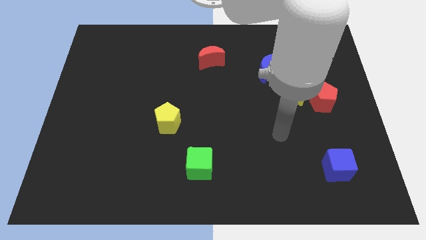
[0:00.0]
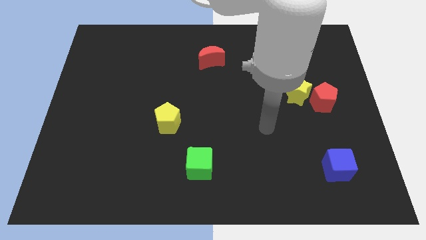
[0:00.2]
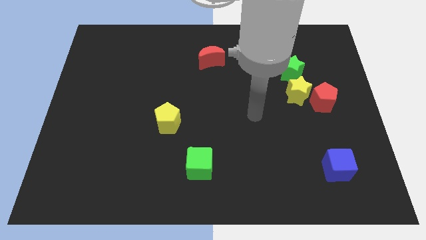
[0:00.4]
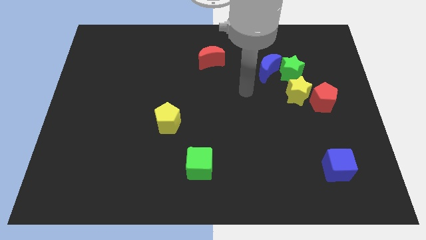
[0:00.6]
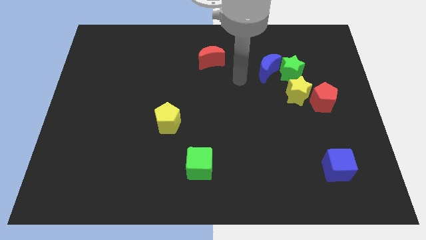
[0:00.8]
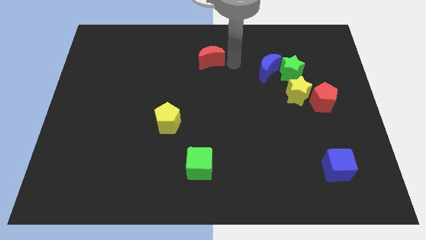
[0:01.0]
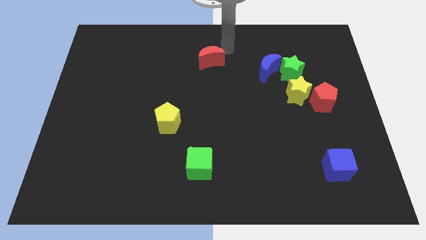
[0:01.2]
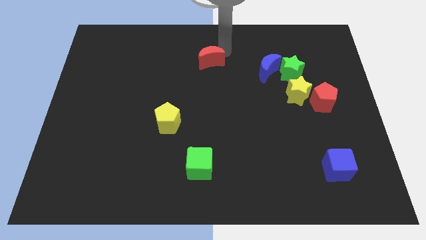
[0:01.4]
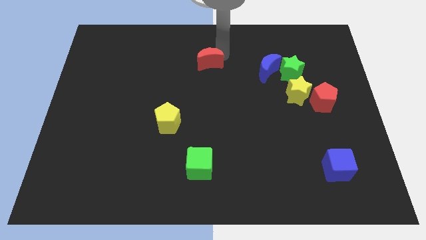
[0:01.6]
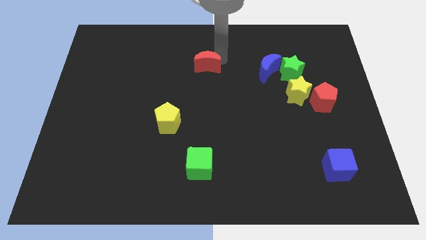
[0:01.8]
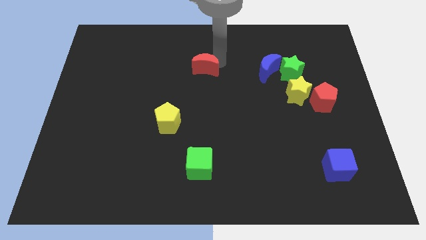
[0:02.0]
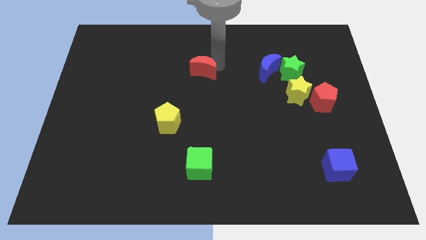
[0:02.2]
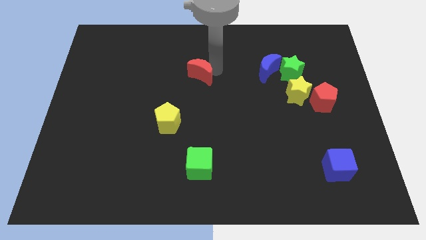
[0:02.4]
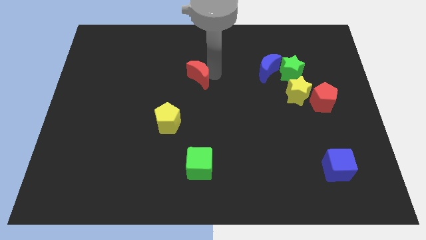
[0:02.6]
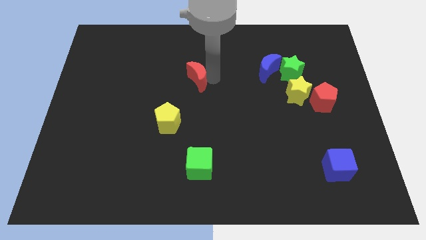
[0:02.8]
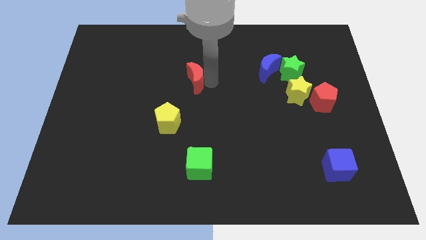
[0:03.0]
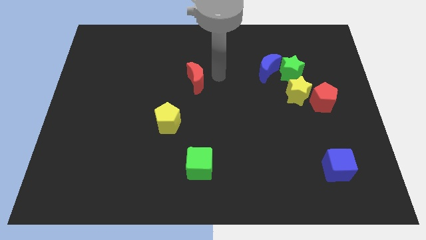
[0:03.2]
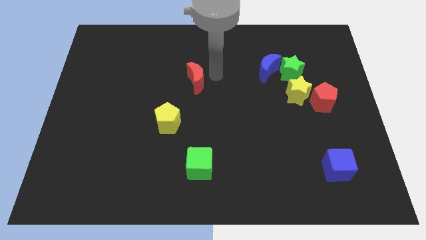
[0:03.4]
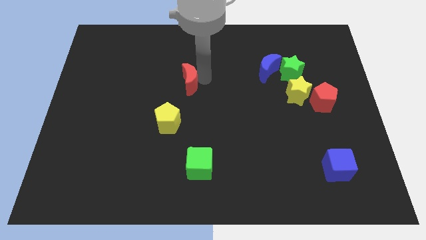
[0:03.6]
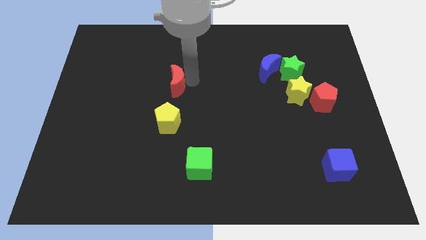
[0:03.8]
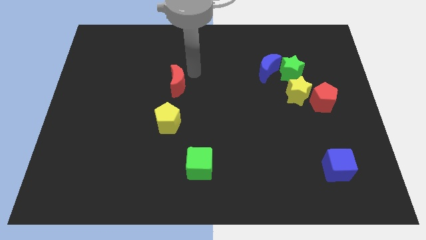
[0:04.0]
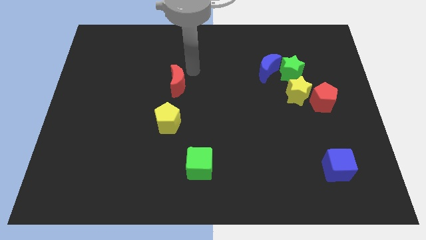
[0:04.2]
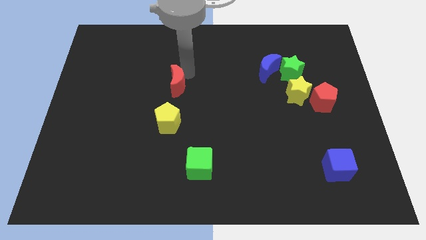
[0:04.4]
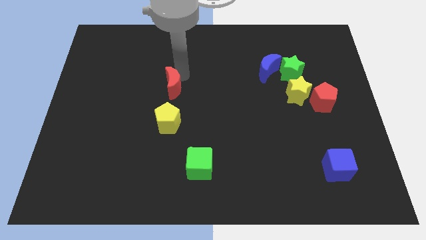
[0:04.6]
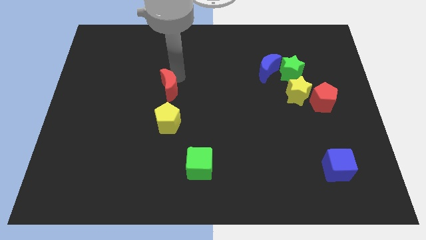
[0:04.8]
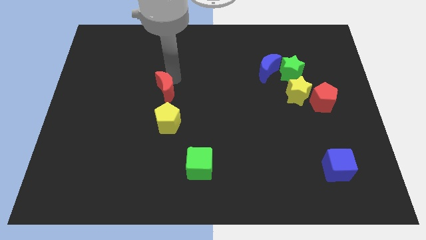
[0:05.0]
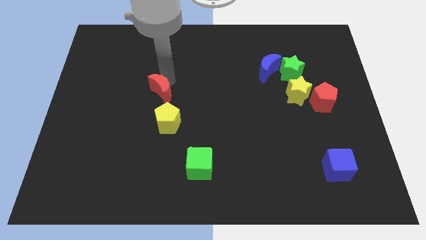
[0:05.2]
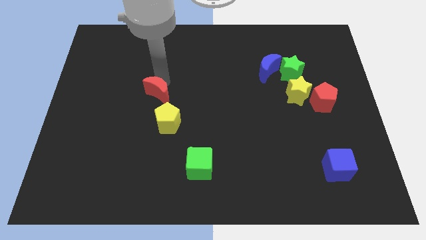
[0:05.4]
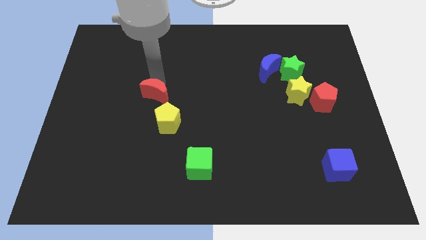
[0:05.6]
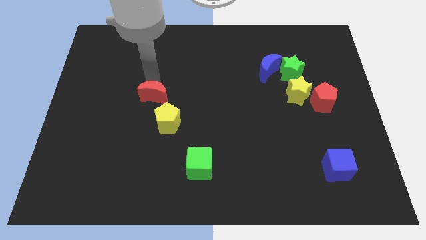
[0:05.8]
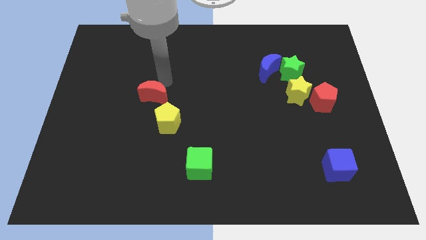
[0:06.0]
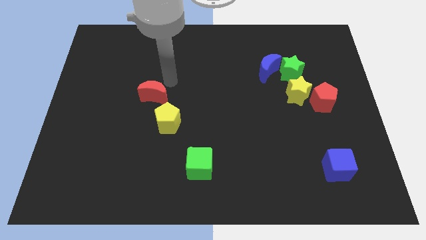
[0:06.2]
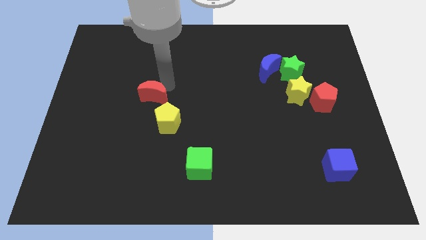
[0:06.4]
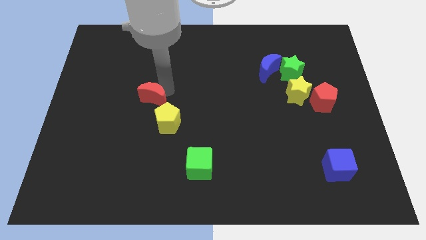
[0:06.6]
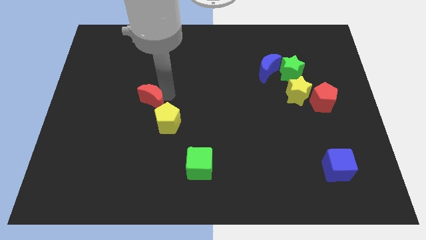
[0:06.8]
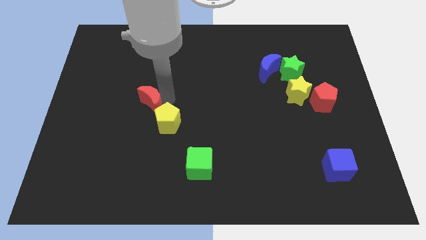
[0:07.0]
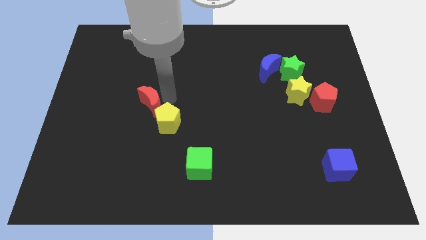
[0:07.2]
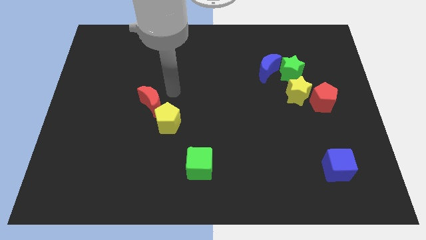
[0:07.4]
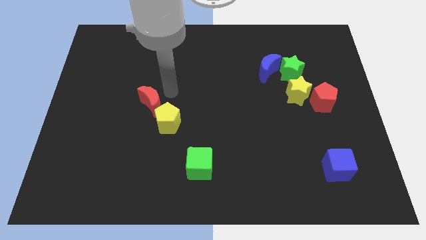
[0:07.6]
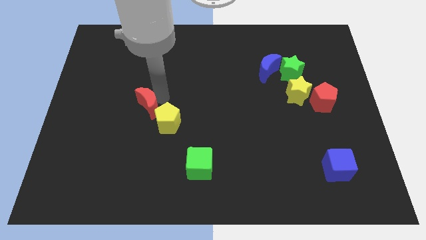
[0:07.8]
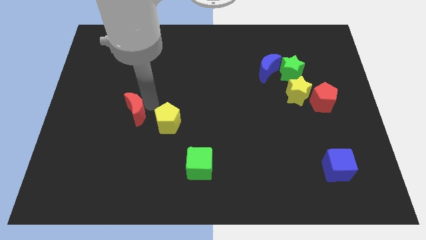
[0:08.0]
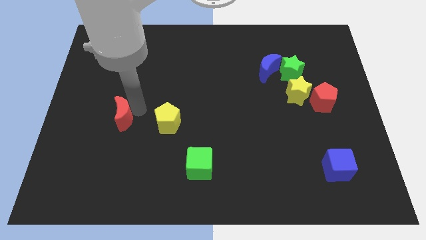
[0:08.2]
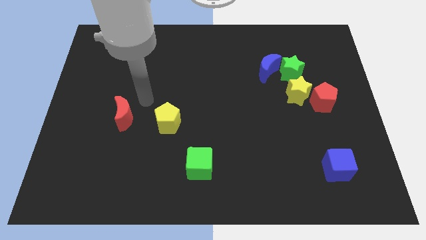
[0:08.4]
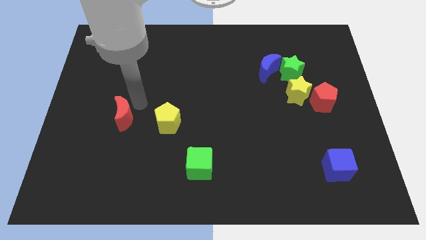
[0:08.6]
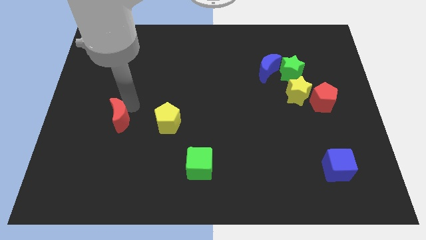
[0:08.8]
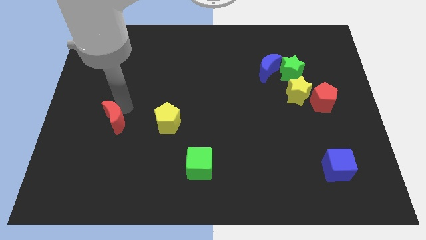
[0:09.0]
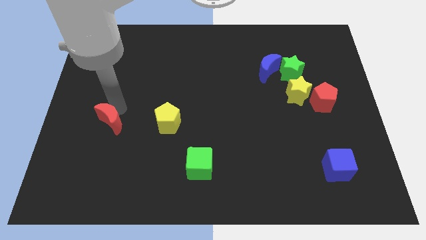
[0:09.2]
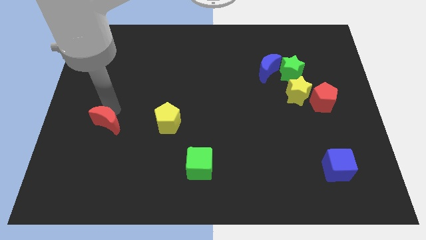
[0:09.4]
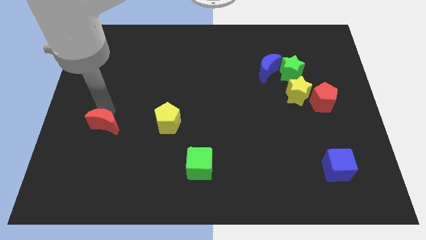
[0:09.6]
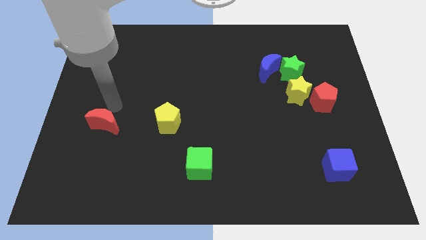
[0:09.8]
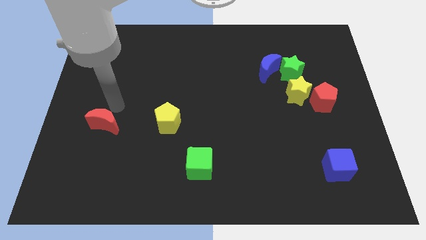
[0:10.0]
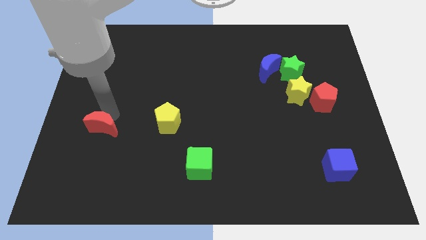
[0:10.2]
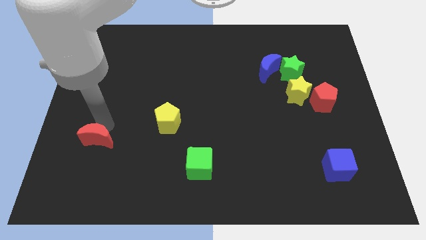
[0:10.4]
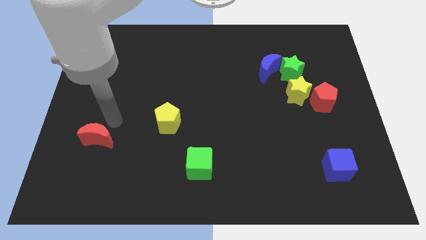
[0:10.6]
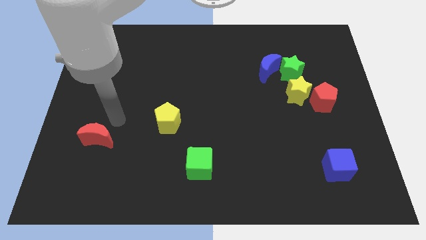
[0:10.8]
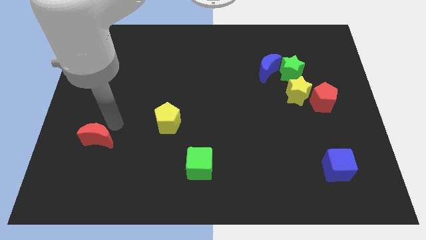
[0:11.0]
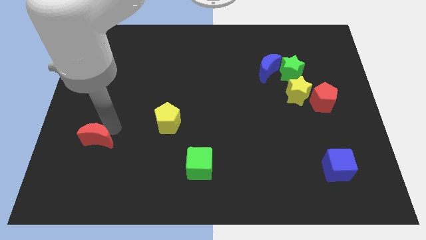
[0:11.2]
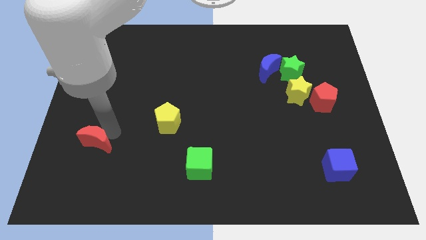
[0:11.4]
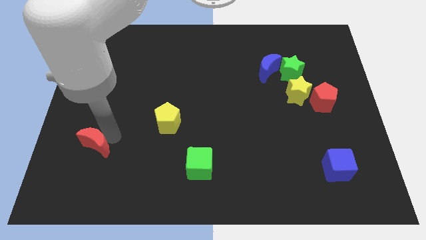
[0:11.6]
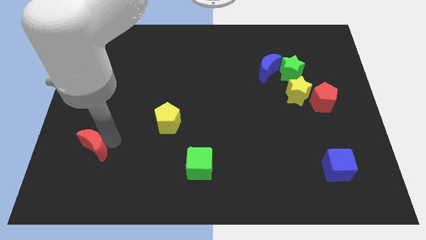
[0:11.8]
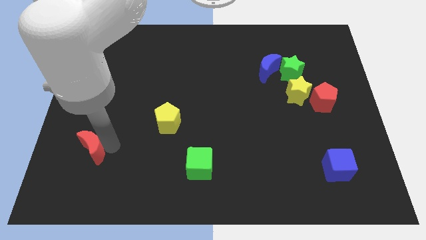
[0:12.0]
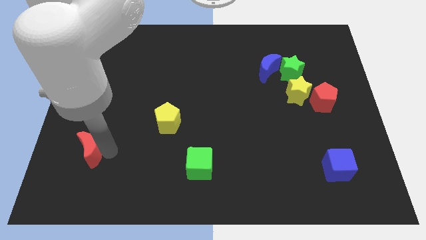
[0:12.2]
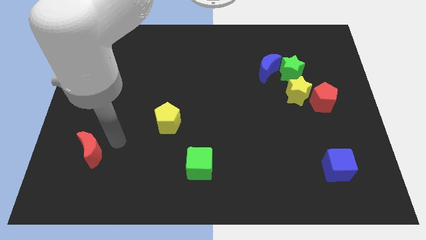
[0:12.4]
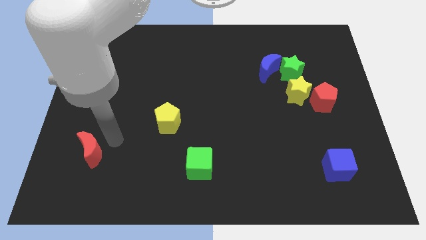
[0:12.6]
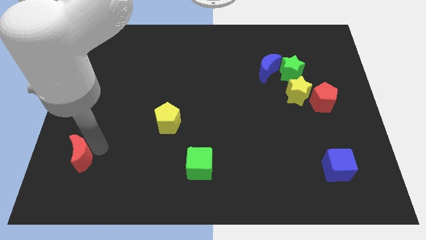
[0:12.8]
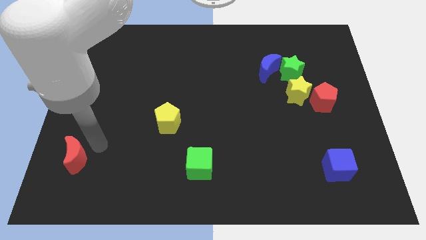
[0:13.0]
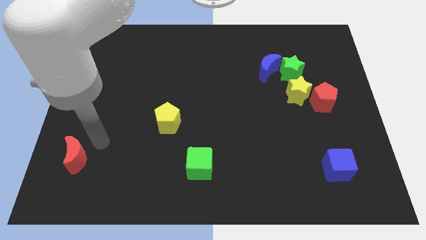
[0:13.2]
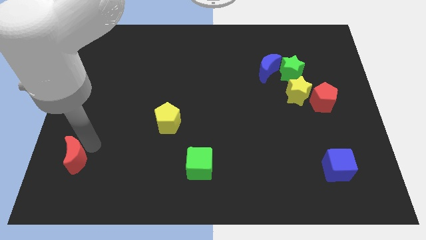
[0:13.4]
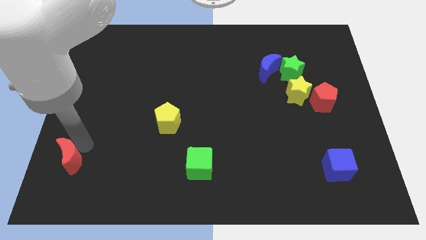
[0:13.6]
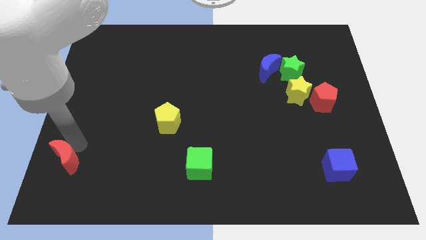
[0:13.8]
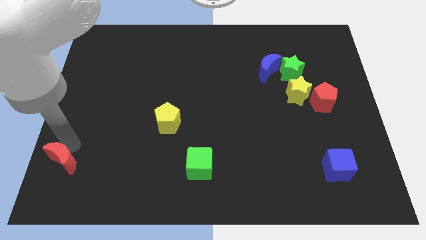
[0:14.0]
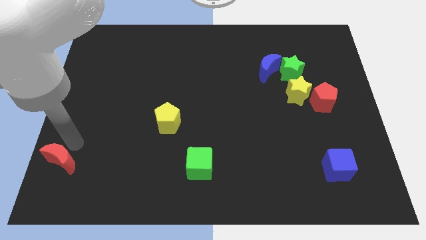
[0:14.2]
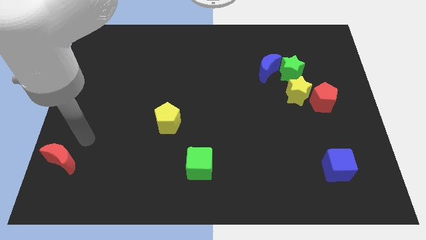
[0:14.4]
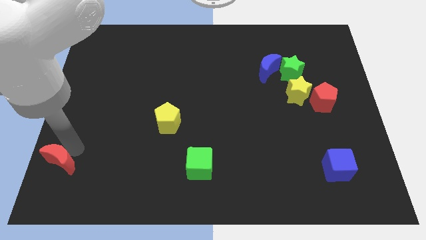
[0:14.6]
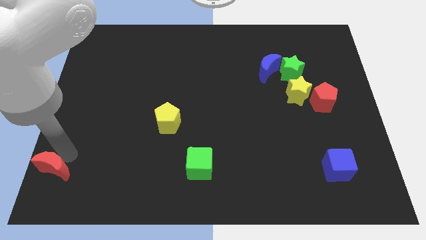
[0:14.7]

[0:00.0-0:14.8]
push the red moon to the bottom left corner
